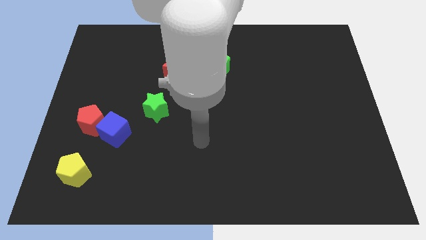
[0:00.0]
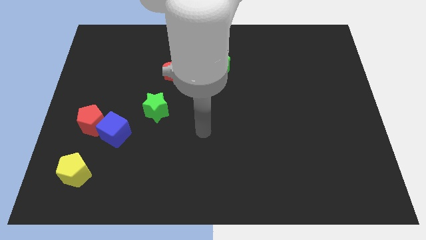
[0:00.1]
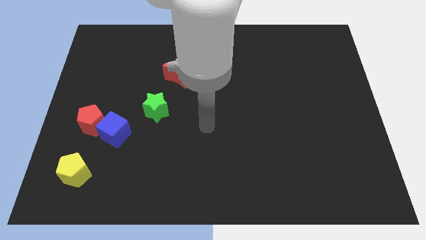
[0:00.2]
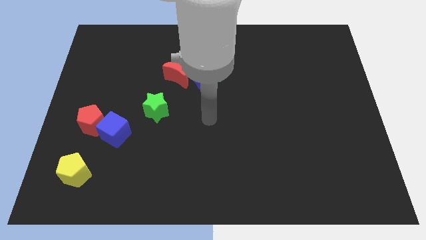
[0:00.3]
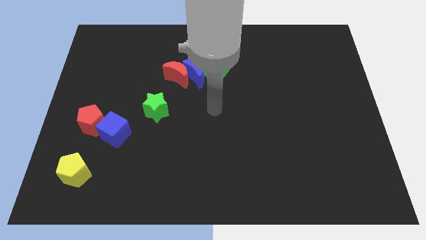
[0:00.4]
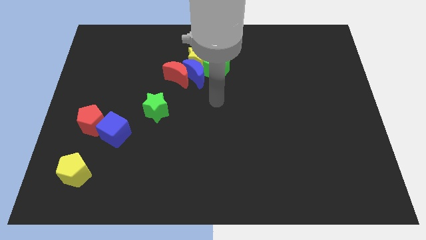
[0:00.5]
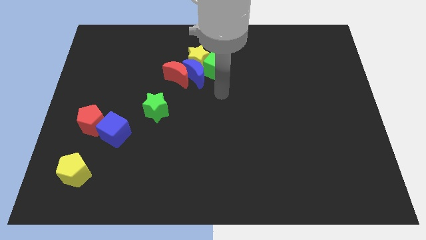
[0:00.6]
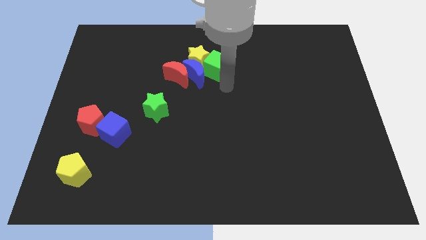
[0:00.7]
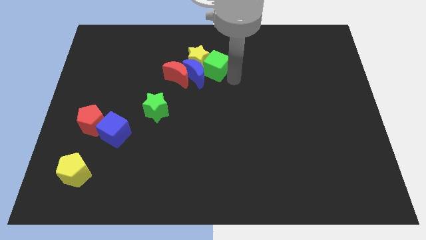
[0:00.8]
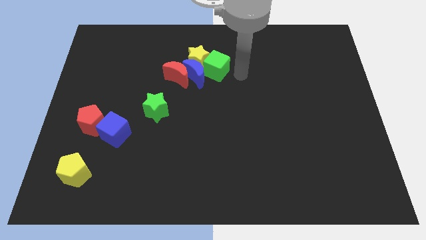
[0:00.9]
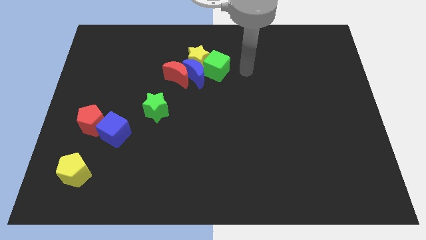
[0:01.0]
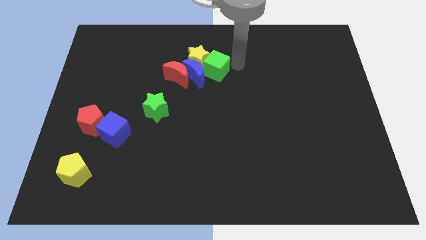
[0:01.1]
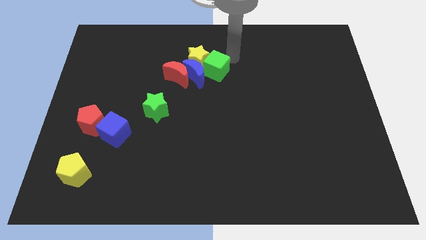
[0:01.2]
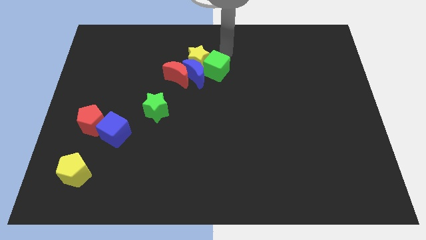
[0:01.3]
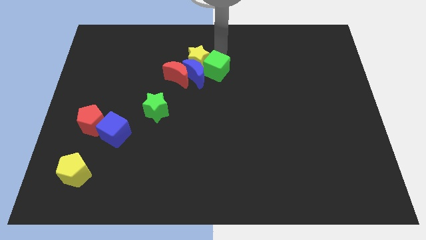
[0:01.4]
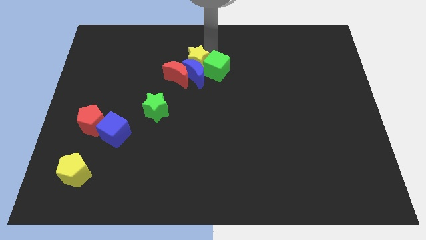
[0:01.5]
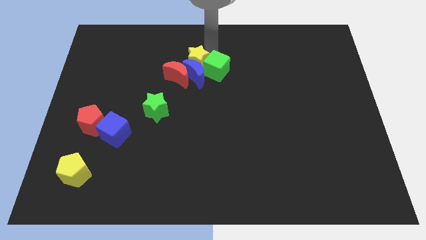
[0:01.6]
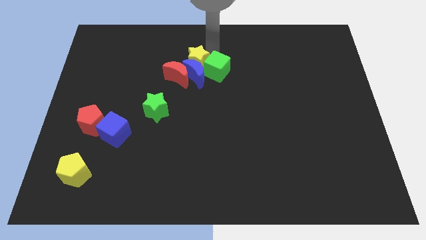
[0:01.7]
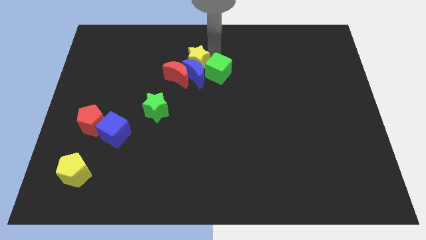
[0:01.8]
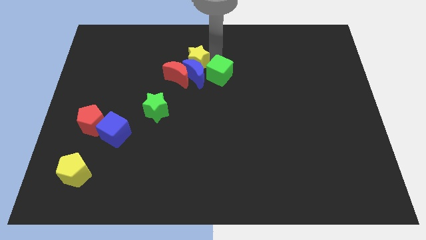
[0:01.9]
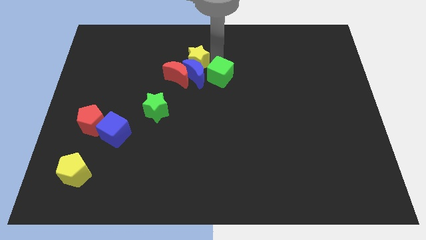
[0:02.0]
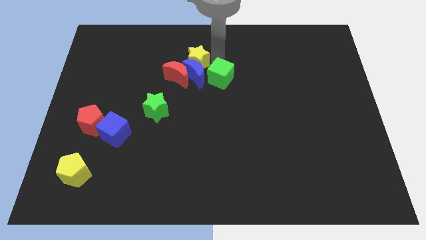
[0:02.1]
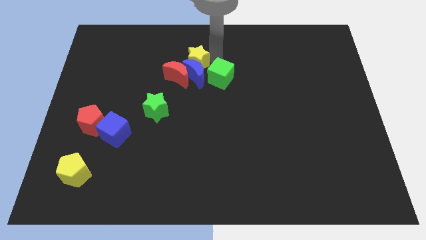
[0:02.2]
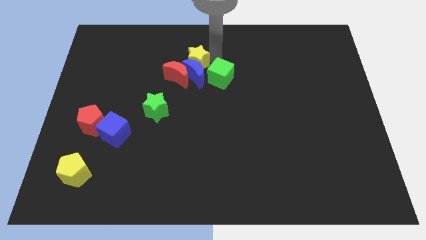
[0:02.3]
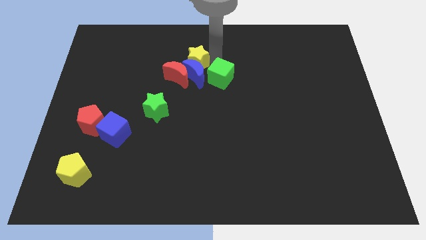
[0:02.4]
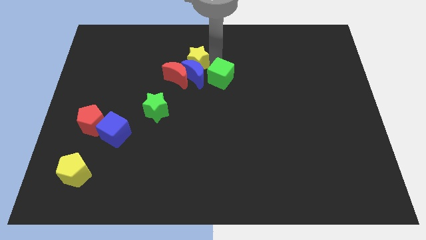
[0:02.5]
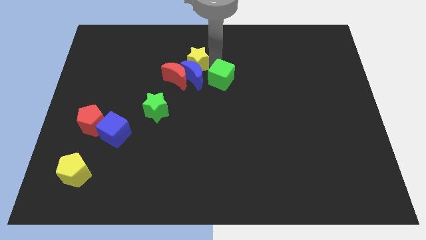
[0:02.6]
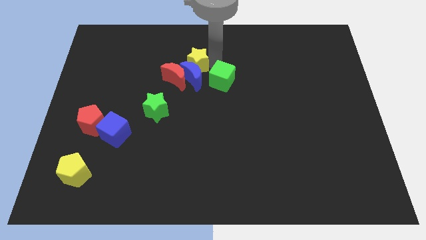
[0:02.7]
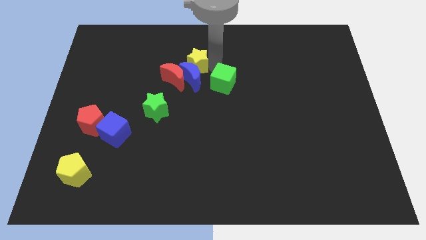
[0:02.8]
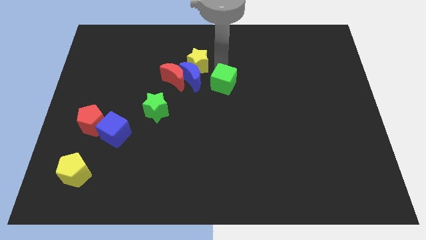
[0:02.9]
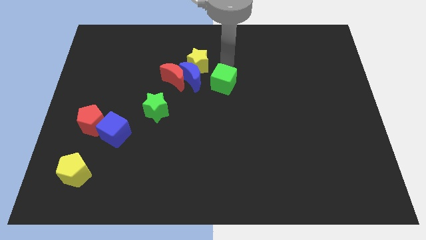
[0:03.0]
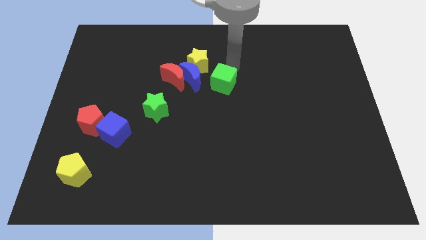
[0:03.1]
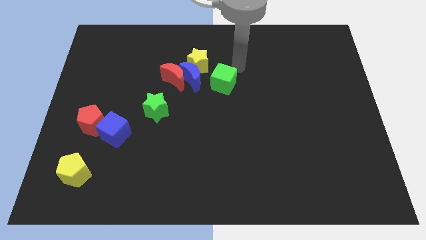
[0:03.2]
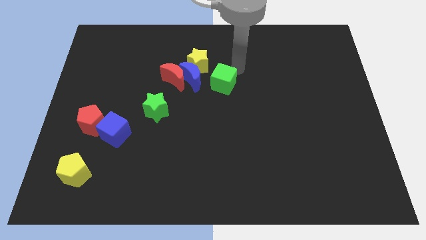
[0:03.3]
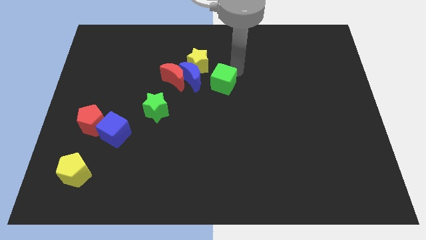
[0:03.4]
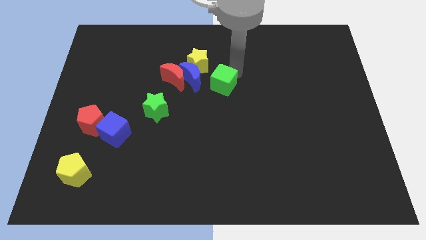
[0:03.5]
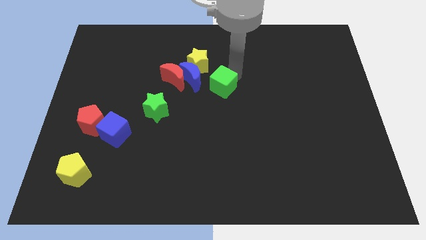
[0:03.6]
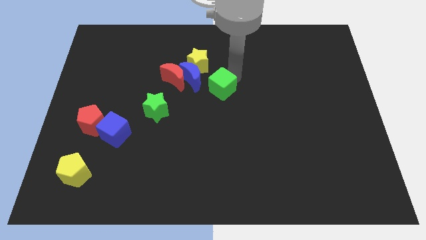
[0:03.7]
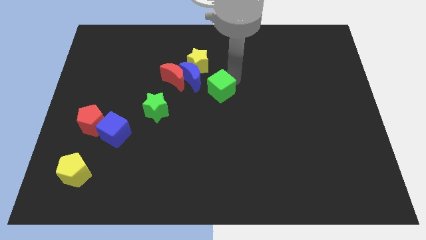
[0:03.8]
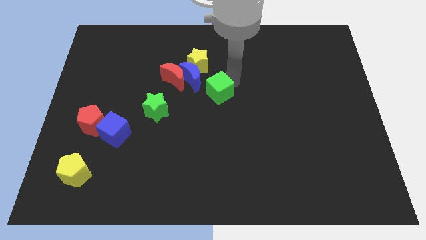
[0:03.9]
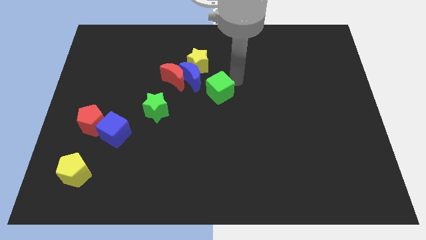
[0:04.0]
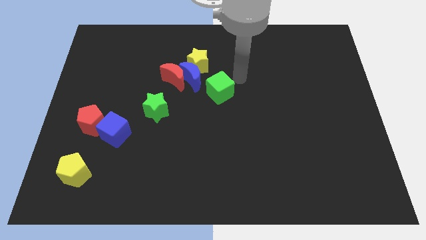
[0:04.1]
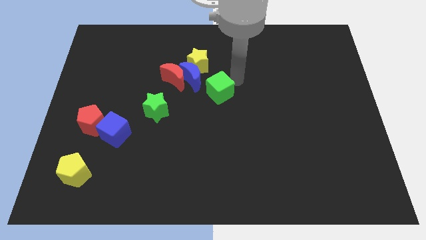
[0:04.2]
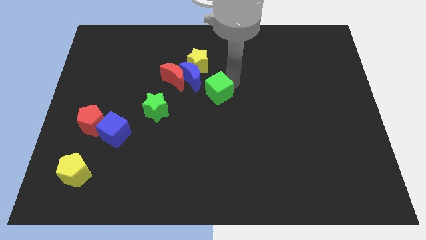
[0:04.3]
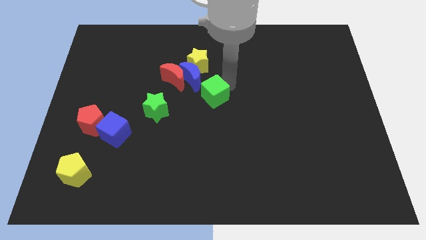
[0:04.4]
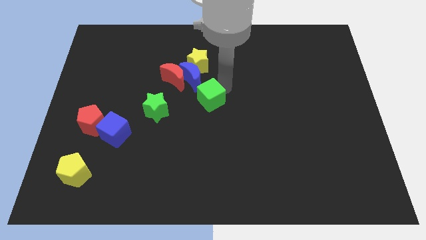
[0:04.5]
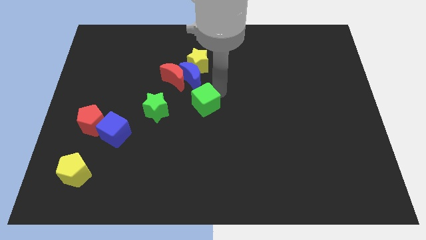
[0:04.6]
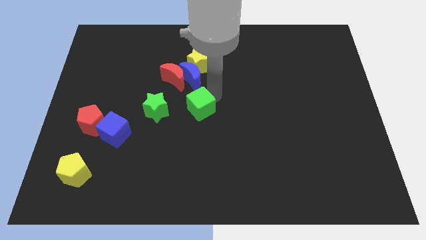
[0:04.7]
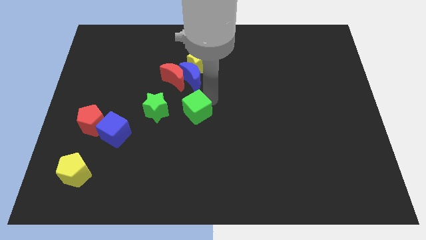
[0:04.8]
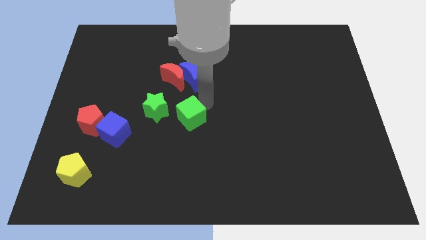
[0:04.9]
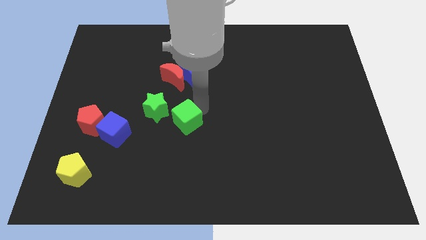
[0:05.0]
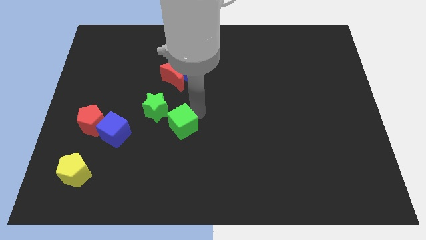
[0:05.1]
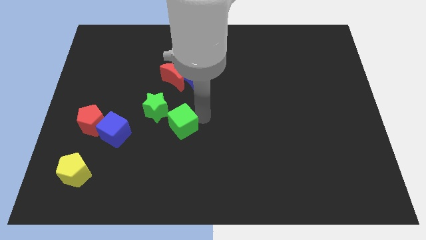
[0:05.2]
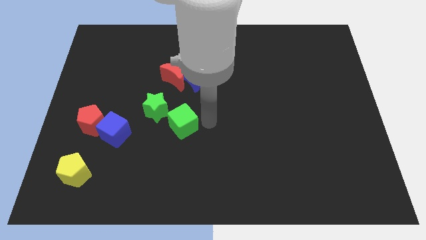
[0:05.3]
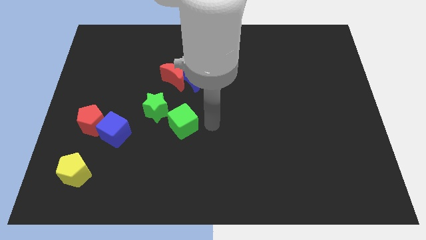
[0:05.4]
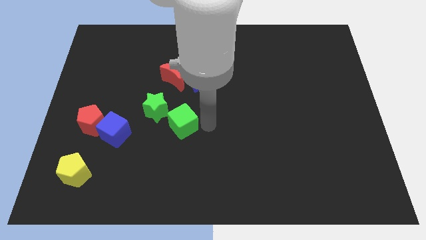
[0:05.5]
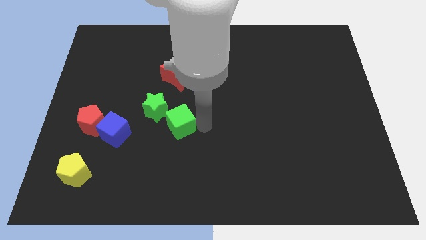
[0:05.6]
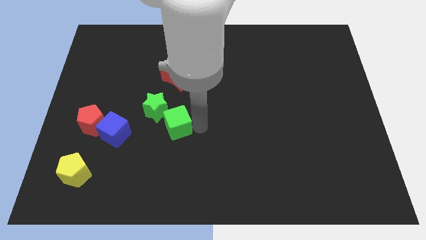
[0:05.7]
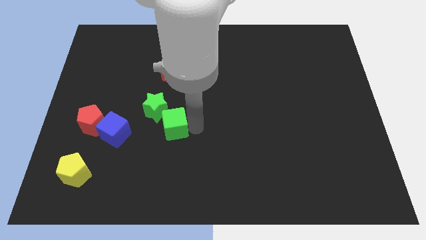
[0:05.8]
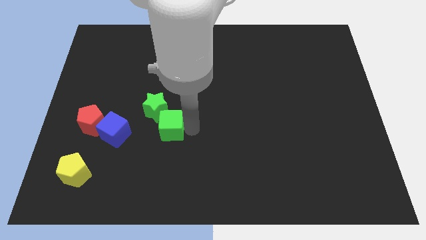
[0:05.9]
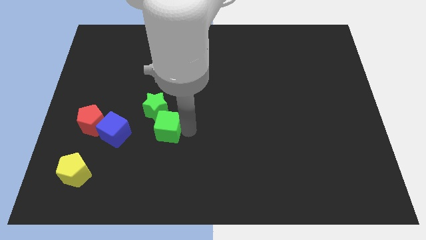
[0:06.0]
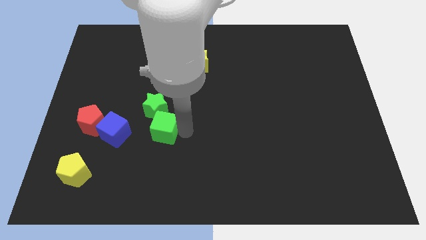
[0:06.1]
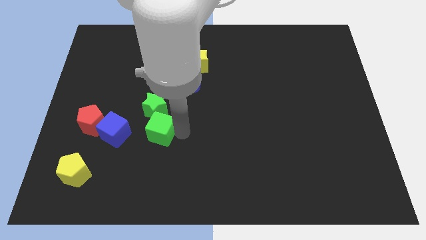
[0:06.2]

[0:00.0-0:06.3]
move the green cube to the right of the red pentagon

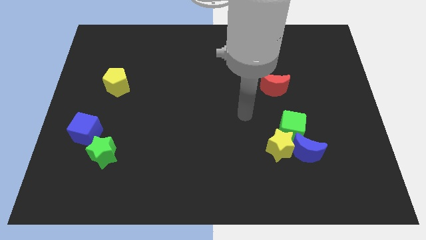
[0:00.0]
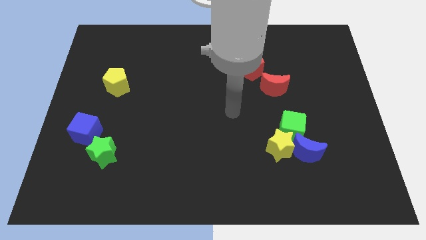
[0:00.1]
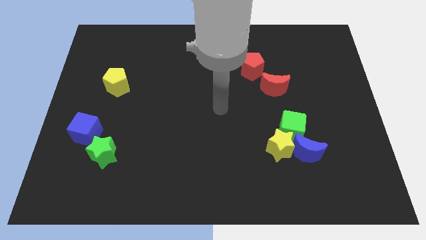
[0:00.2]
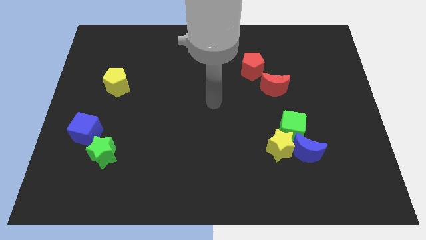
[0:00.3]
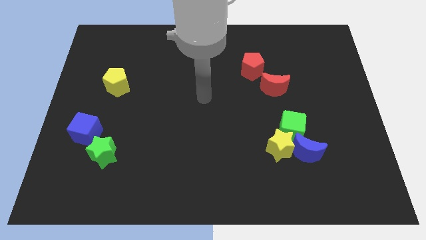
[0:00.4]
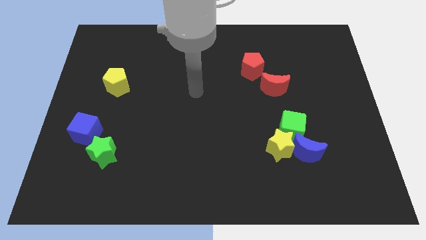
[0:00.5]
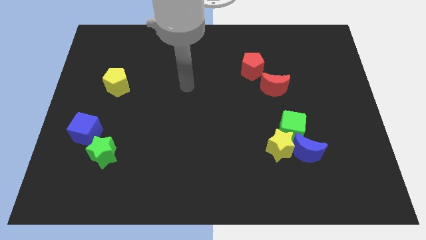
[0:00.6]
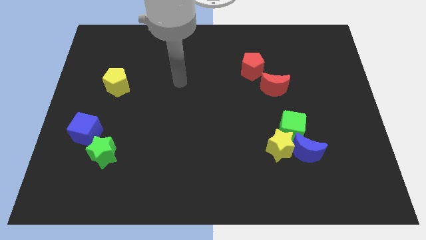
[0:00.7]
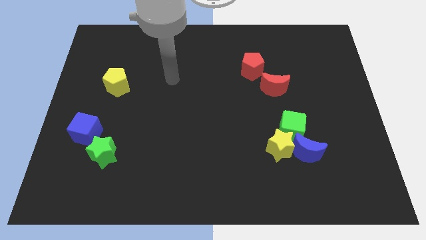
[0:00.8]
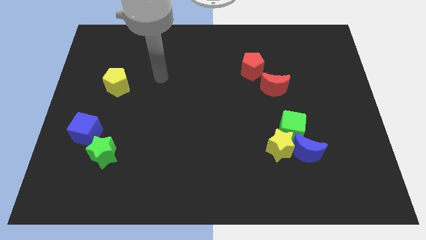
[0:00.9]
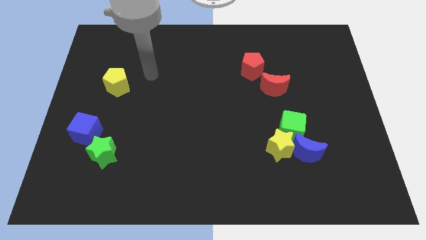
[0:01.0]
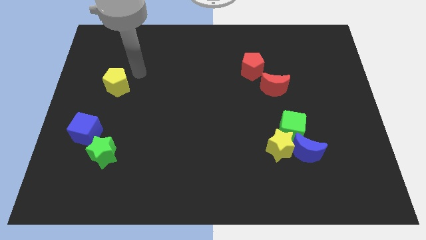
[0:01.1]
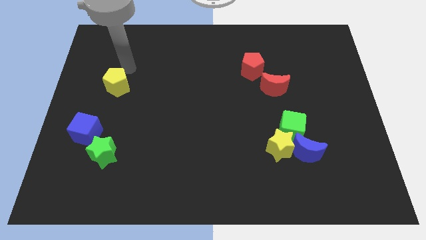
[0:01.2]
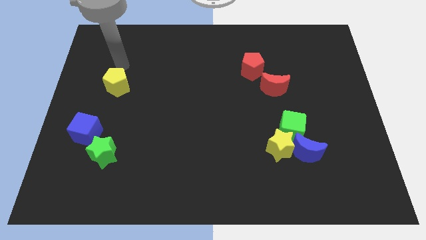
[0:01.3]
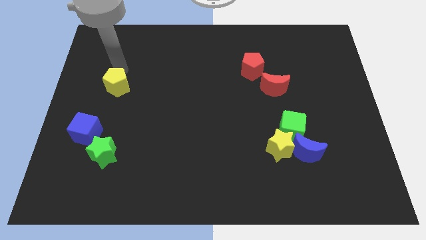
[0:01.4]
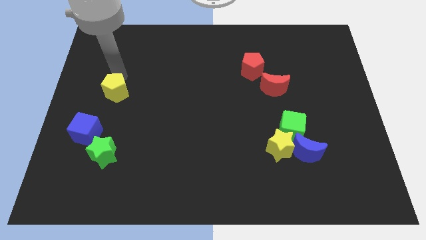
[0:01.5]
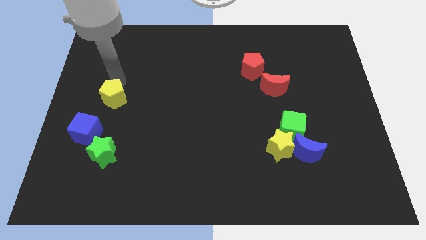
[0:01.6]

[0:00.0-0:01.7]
slide the yellow pentagon to the top right of the blue cube
